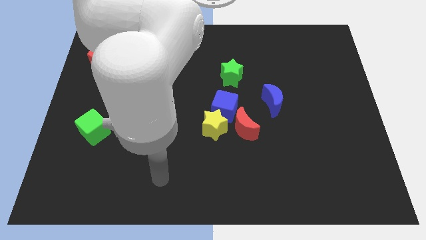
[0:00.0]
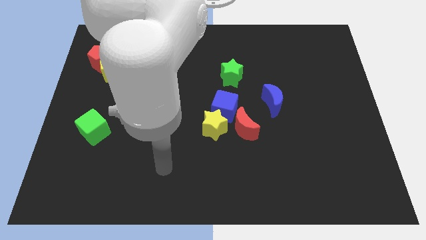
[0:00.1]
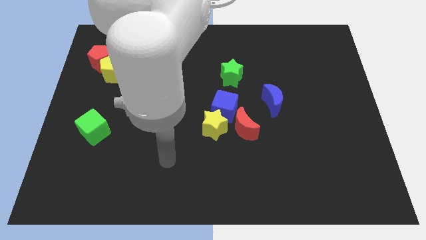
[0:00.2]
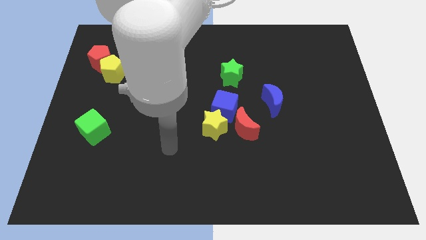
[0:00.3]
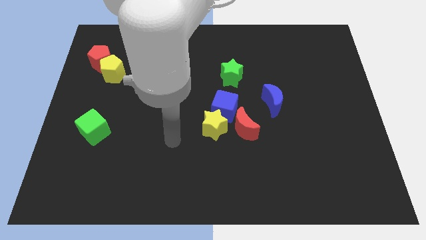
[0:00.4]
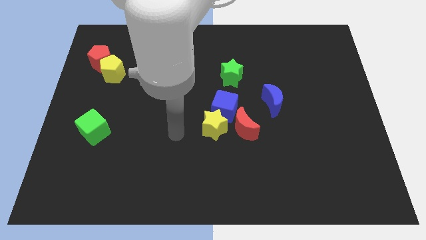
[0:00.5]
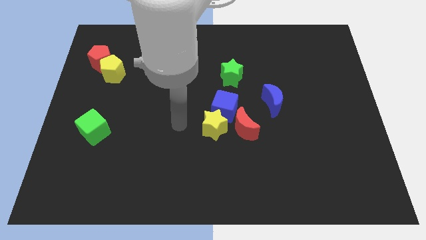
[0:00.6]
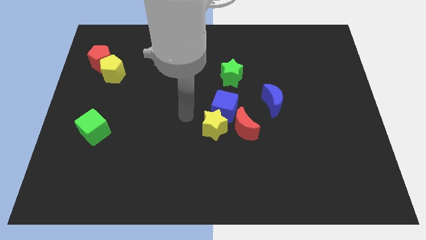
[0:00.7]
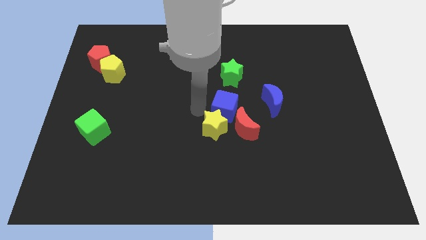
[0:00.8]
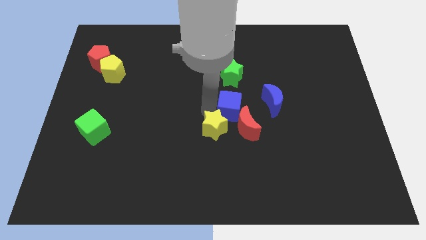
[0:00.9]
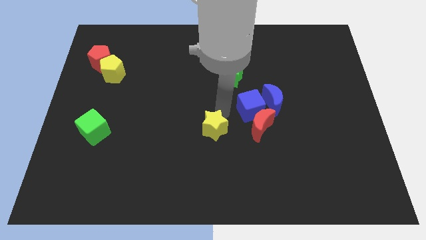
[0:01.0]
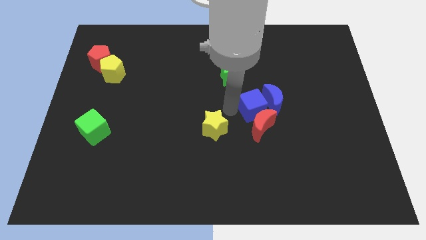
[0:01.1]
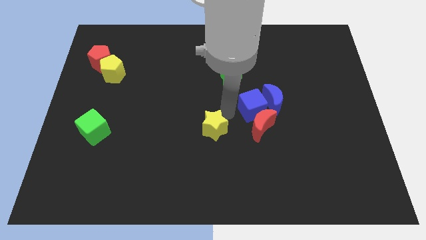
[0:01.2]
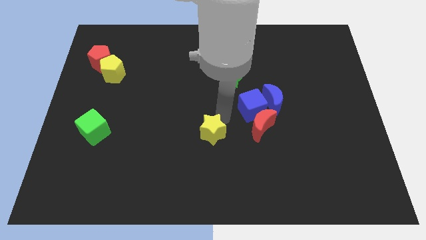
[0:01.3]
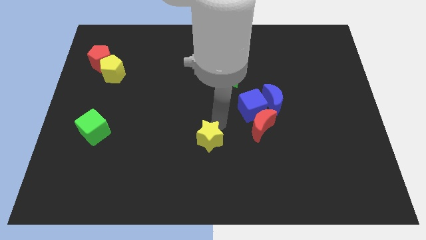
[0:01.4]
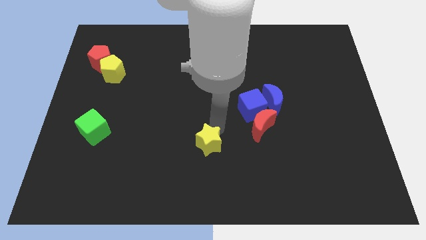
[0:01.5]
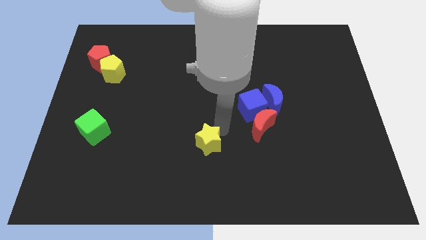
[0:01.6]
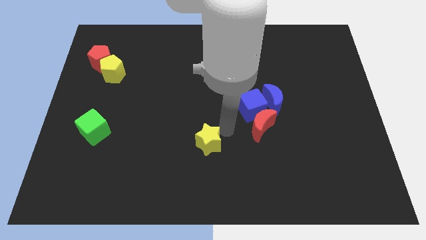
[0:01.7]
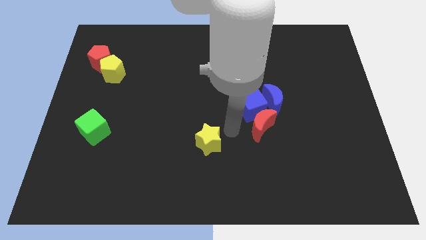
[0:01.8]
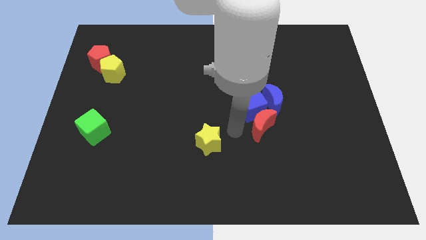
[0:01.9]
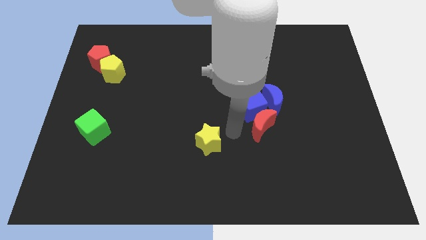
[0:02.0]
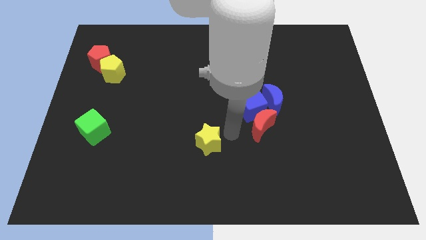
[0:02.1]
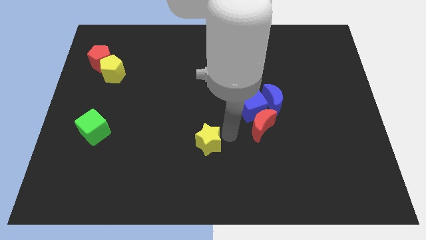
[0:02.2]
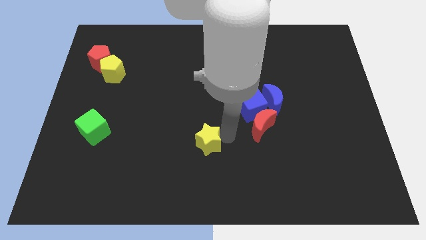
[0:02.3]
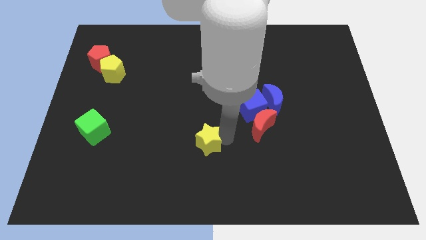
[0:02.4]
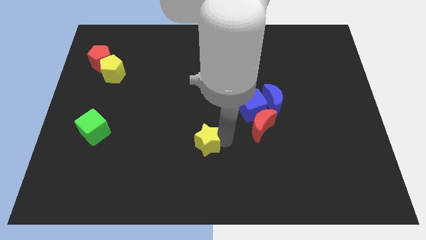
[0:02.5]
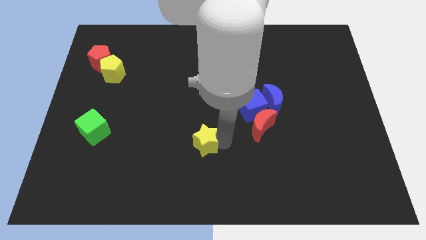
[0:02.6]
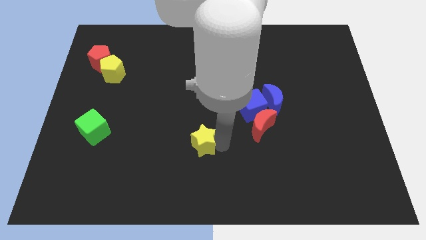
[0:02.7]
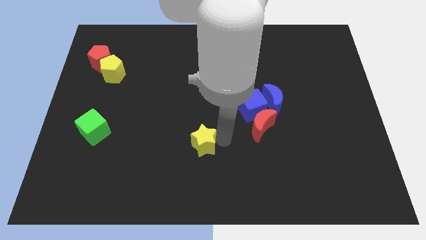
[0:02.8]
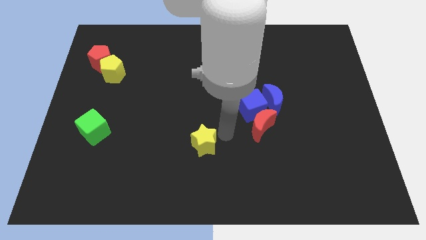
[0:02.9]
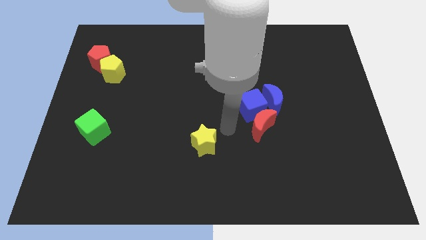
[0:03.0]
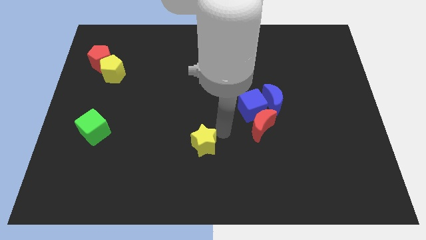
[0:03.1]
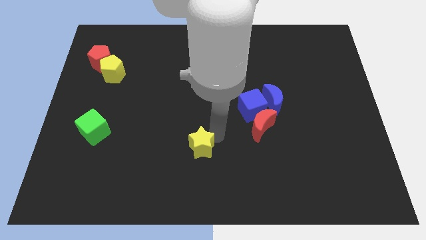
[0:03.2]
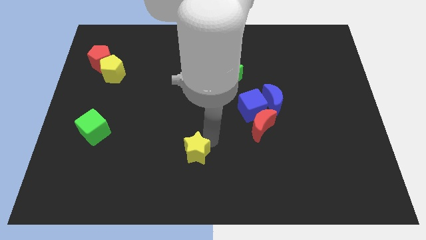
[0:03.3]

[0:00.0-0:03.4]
push the yellow star somewhat downwards and to the left diagonally

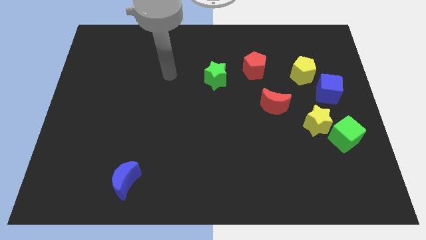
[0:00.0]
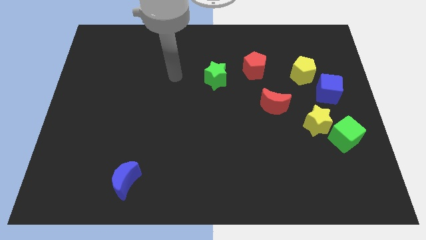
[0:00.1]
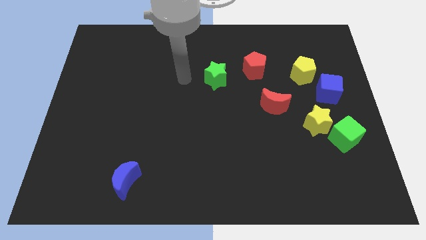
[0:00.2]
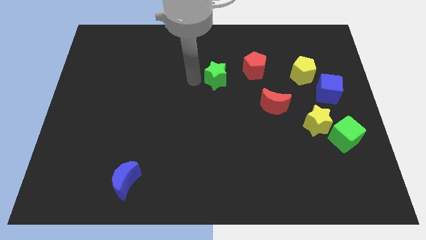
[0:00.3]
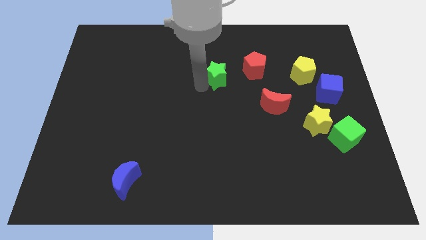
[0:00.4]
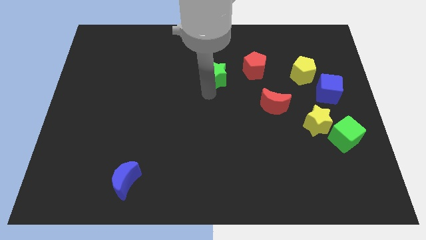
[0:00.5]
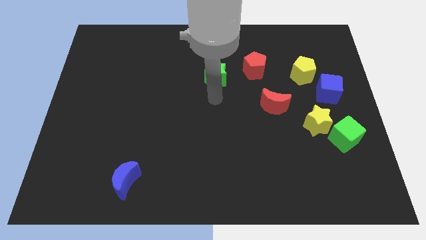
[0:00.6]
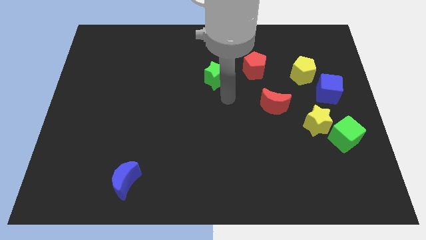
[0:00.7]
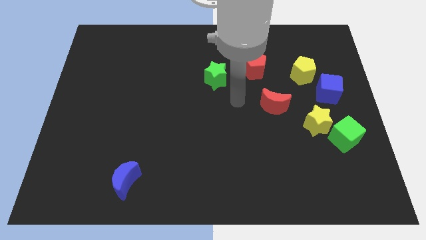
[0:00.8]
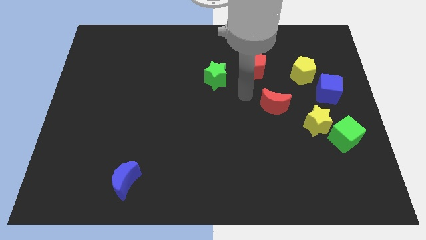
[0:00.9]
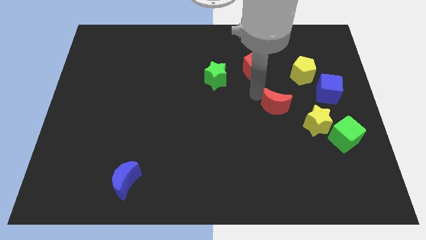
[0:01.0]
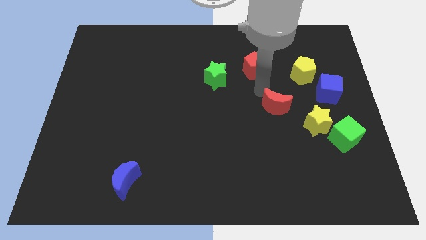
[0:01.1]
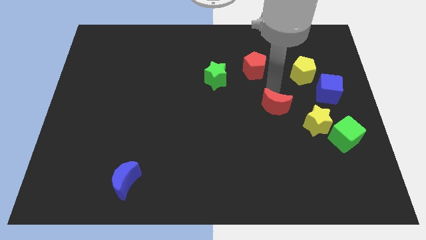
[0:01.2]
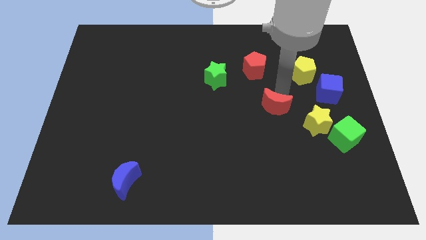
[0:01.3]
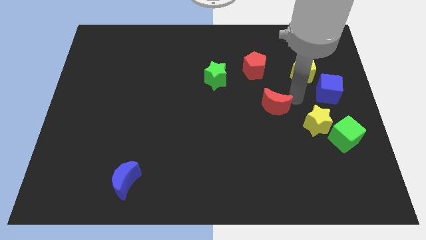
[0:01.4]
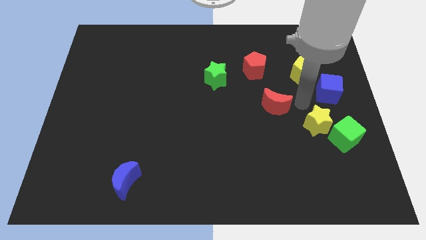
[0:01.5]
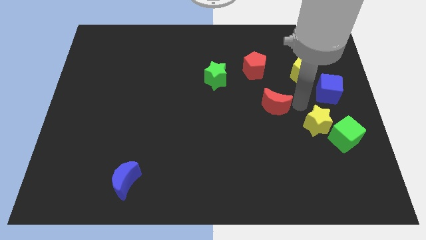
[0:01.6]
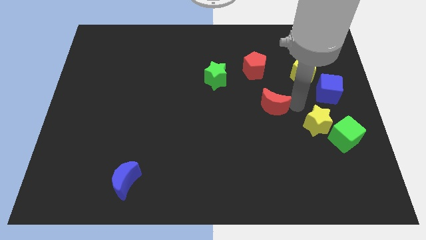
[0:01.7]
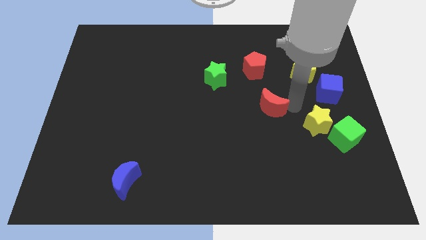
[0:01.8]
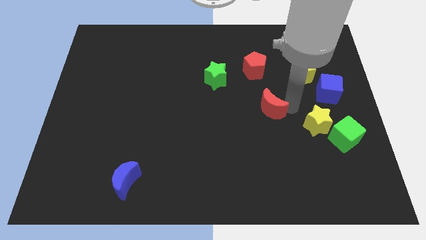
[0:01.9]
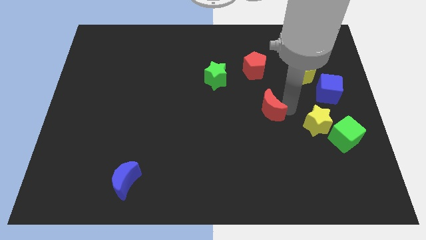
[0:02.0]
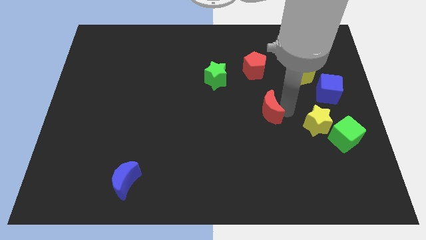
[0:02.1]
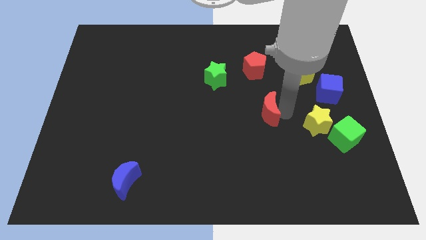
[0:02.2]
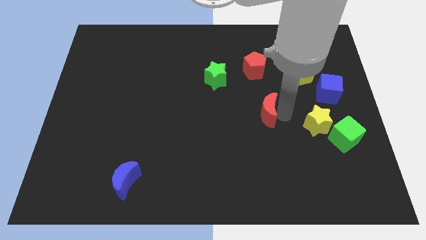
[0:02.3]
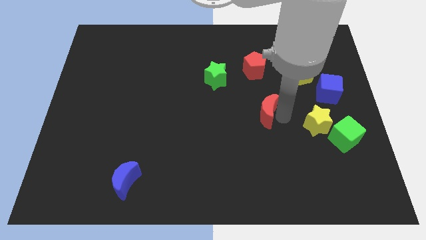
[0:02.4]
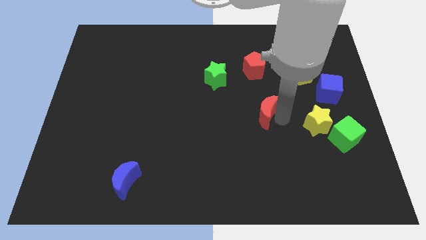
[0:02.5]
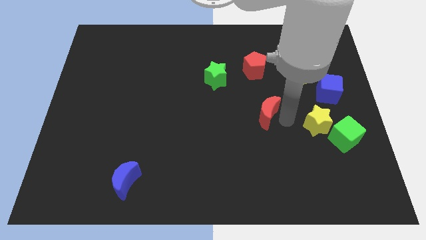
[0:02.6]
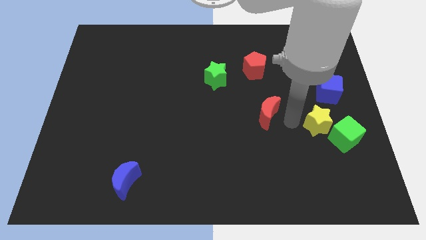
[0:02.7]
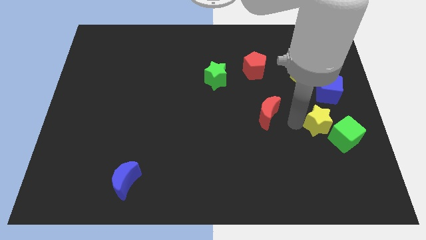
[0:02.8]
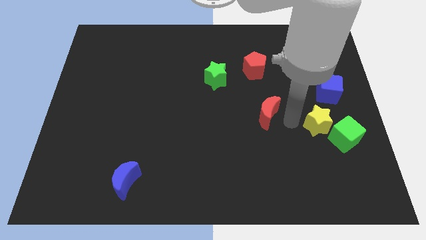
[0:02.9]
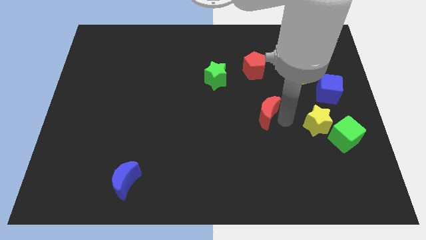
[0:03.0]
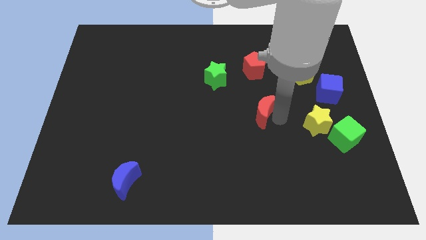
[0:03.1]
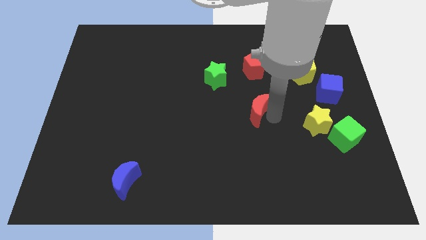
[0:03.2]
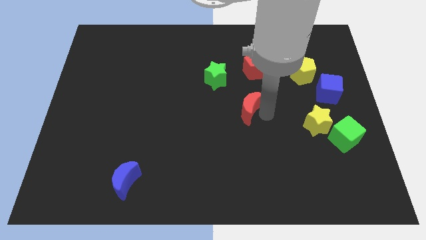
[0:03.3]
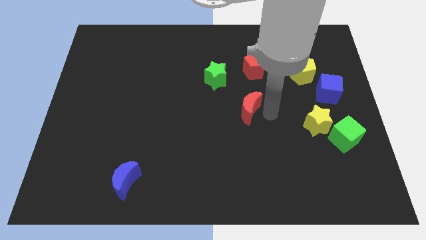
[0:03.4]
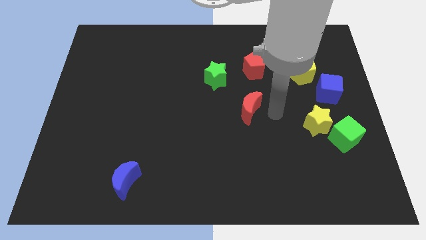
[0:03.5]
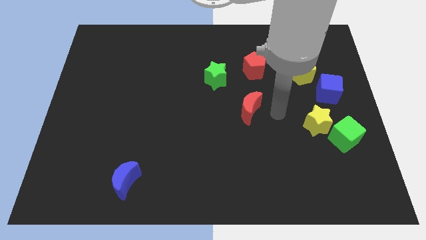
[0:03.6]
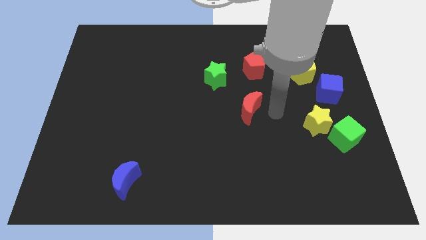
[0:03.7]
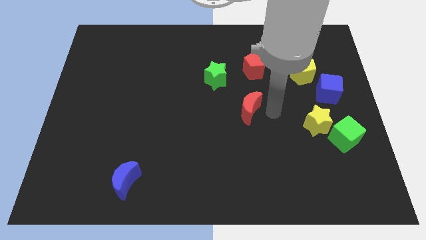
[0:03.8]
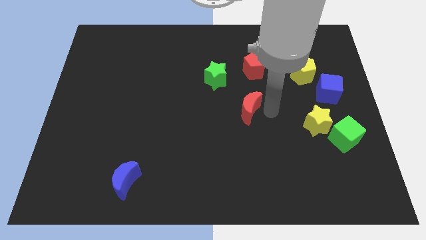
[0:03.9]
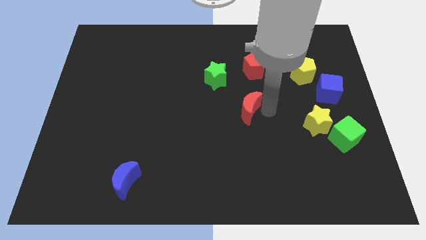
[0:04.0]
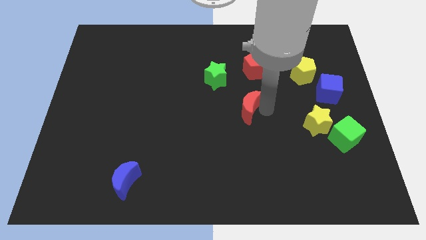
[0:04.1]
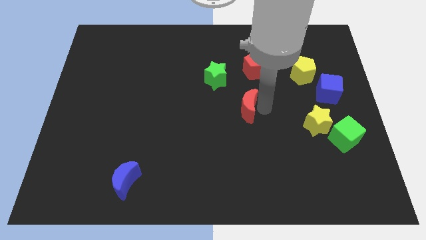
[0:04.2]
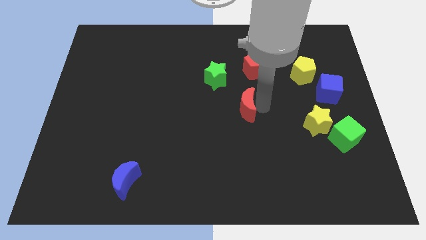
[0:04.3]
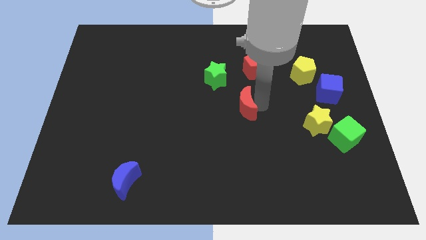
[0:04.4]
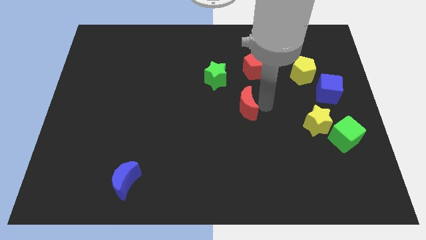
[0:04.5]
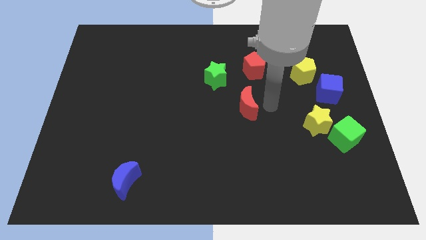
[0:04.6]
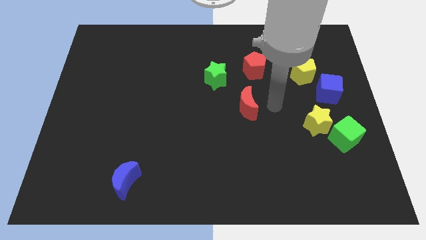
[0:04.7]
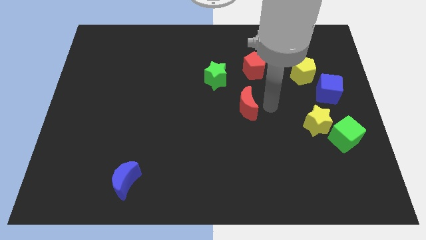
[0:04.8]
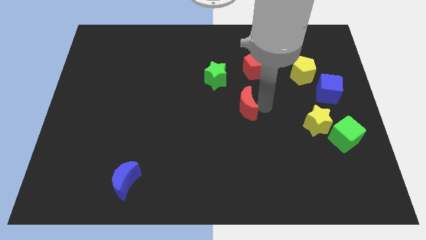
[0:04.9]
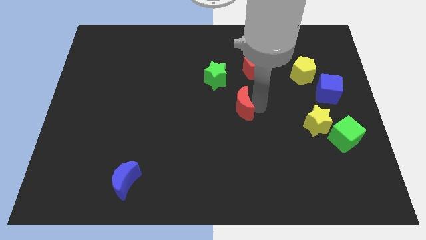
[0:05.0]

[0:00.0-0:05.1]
move the red moon a little bit left
